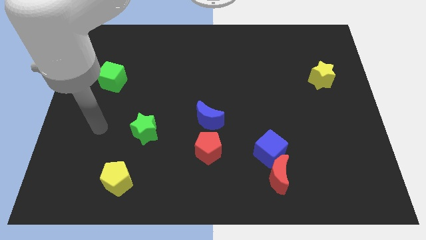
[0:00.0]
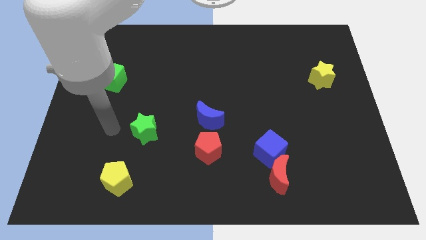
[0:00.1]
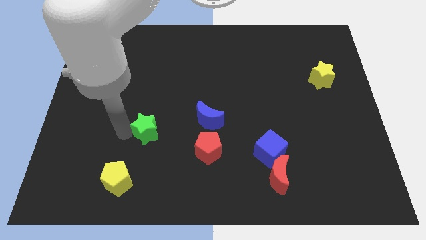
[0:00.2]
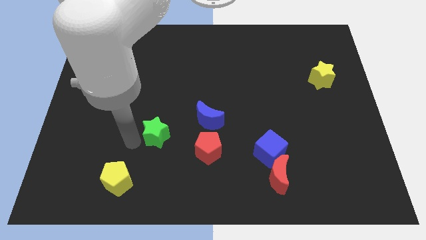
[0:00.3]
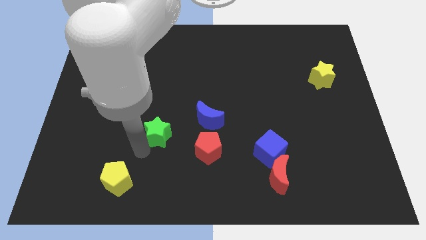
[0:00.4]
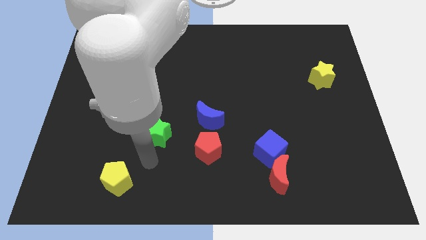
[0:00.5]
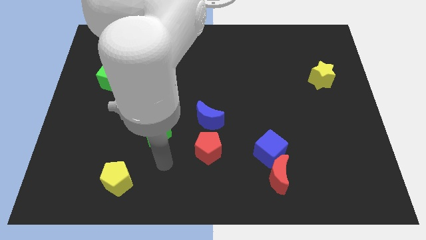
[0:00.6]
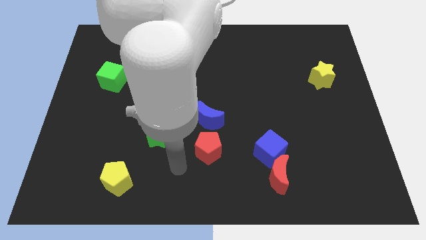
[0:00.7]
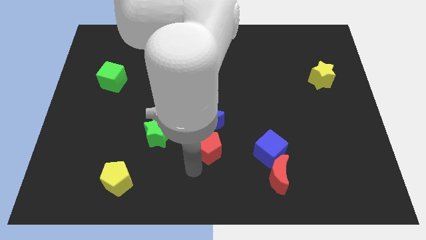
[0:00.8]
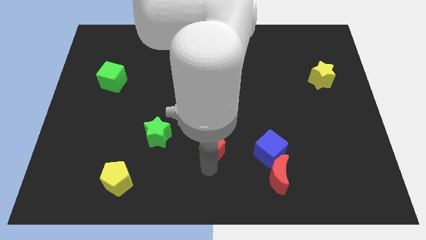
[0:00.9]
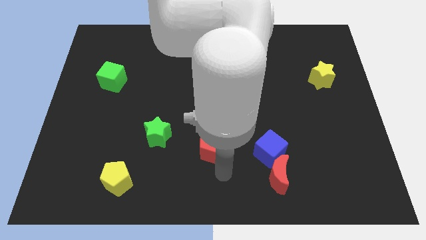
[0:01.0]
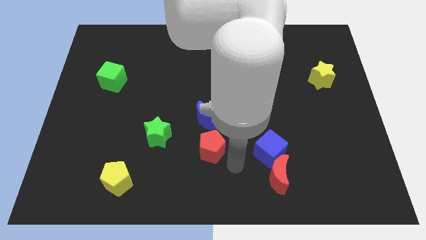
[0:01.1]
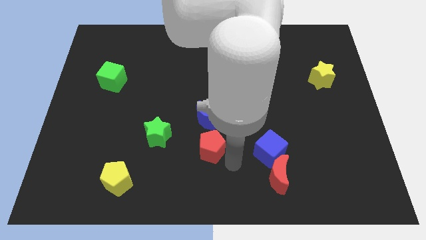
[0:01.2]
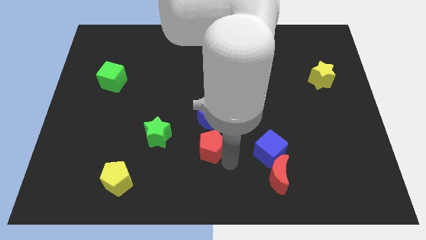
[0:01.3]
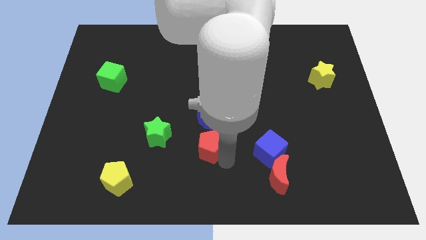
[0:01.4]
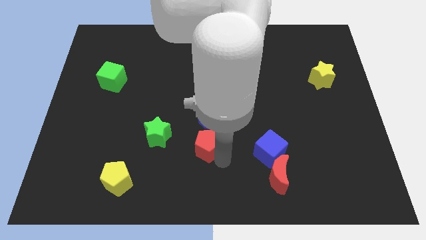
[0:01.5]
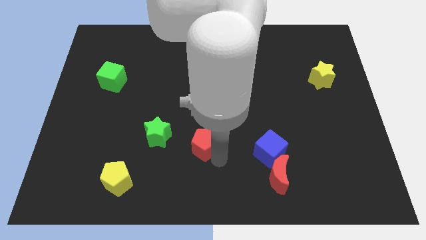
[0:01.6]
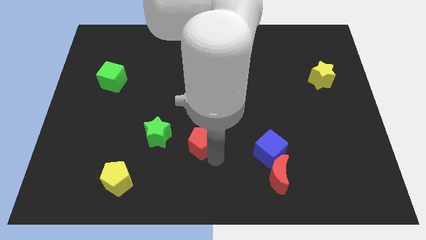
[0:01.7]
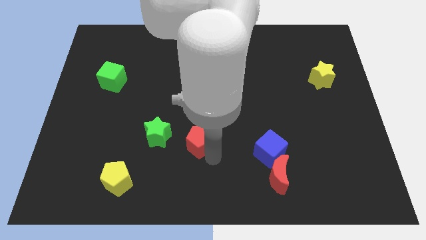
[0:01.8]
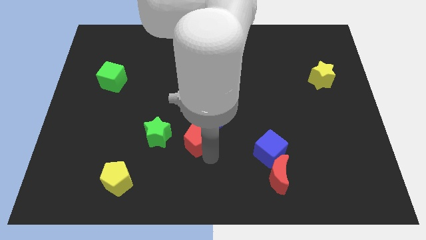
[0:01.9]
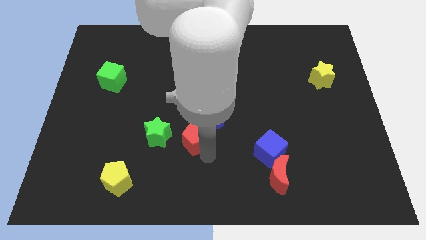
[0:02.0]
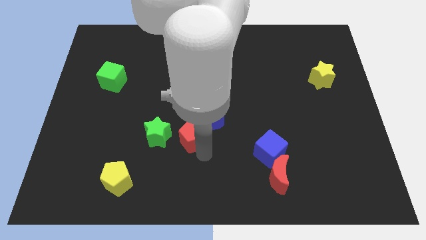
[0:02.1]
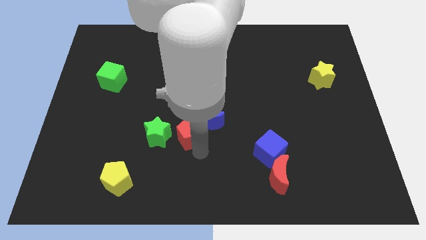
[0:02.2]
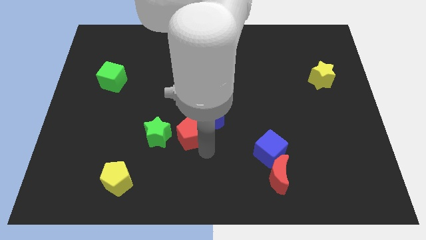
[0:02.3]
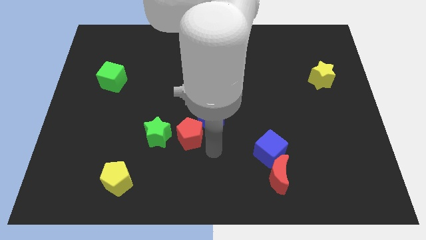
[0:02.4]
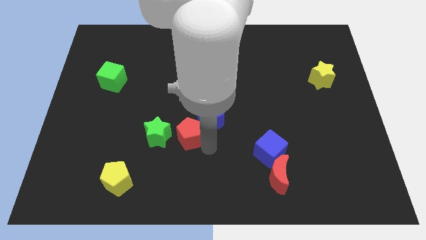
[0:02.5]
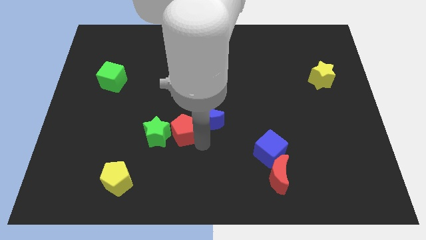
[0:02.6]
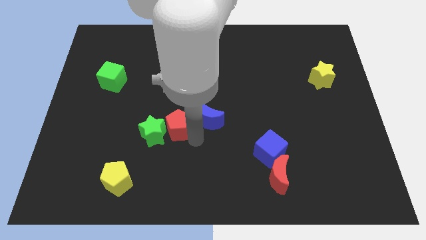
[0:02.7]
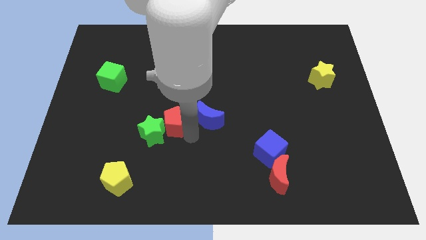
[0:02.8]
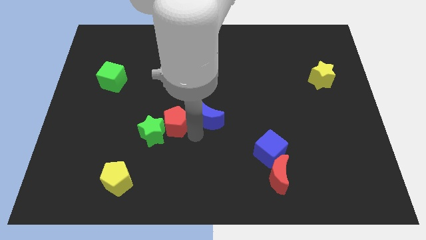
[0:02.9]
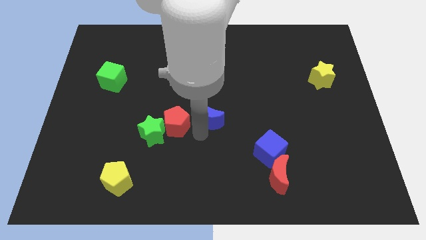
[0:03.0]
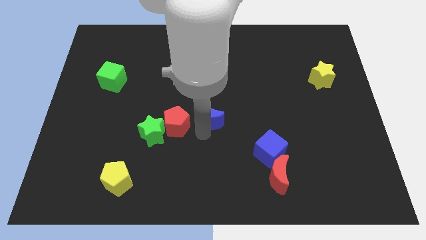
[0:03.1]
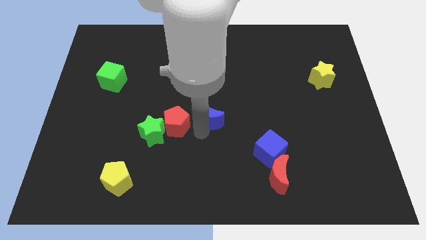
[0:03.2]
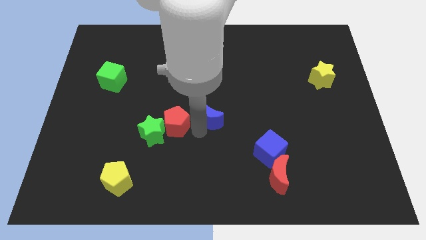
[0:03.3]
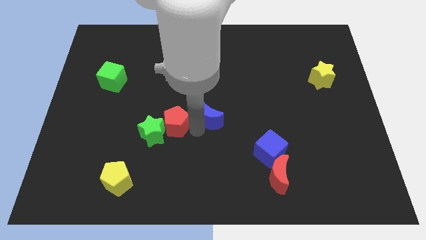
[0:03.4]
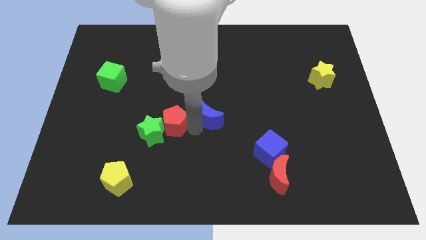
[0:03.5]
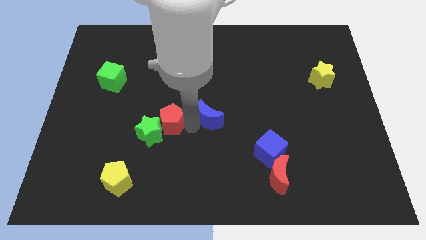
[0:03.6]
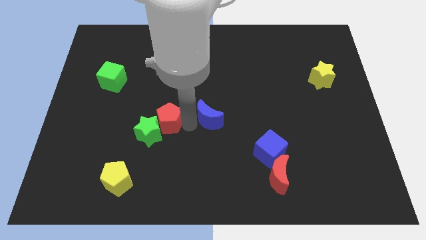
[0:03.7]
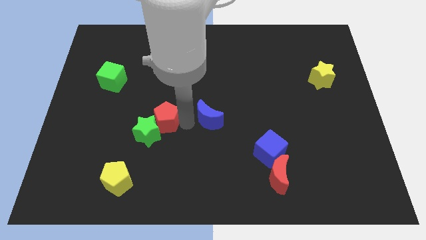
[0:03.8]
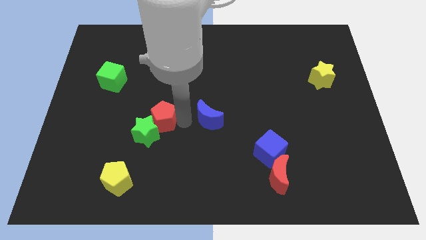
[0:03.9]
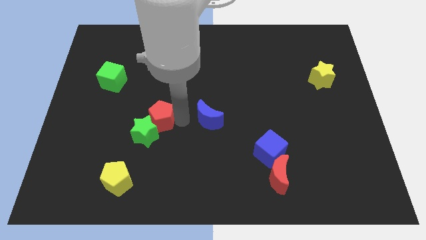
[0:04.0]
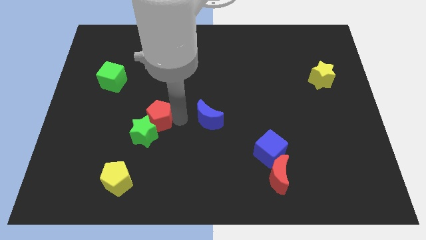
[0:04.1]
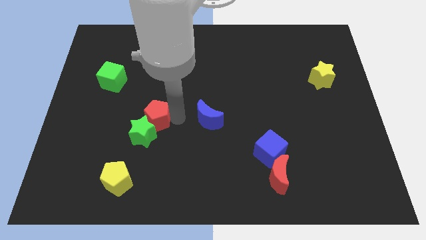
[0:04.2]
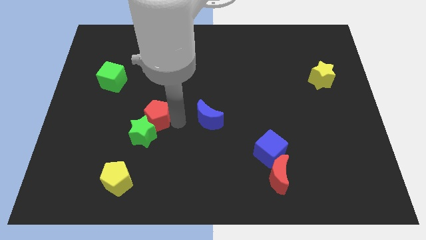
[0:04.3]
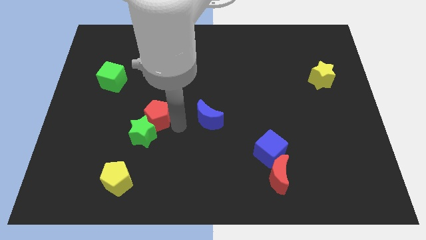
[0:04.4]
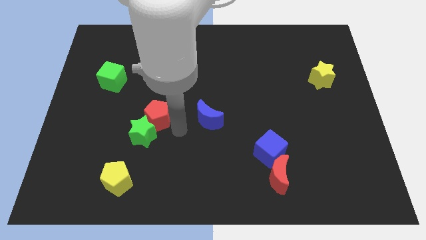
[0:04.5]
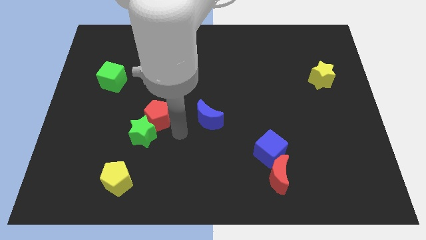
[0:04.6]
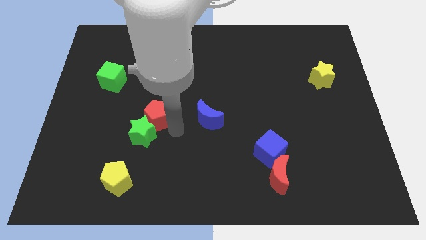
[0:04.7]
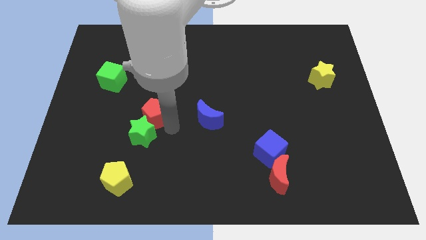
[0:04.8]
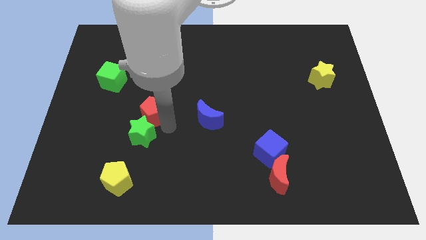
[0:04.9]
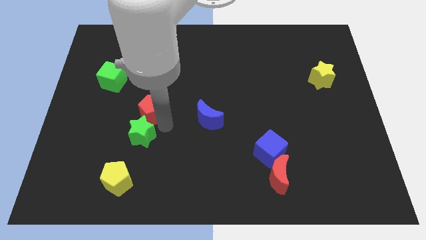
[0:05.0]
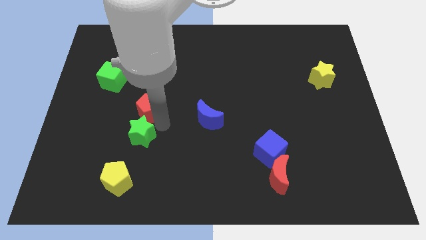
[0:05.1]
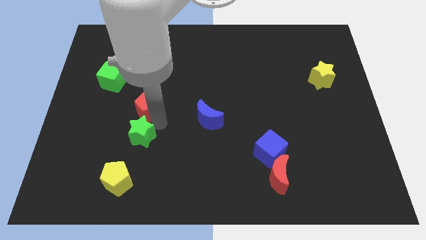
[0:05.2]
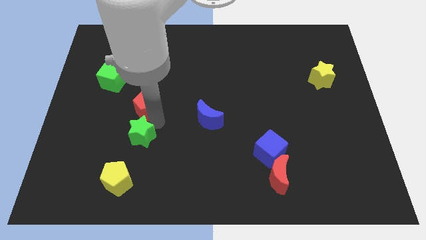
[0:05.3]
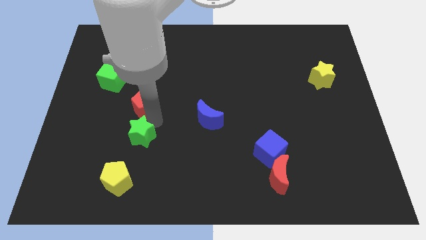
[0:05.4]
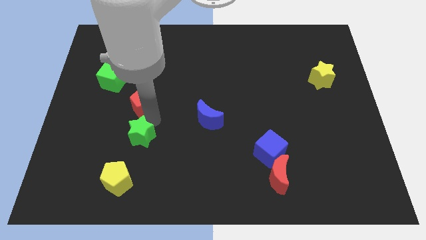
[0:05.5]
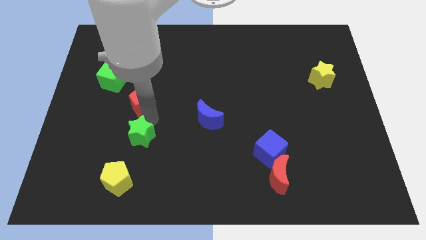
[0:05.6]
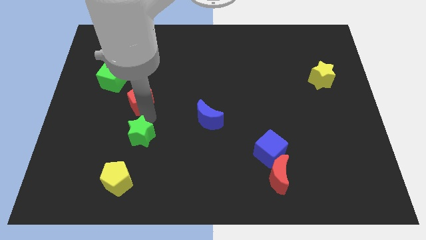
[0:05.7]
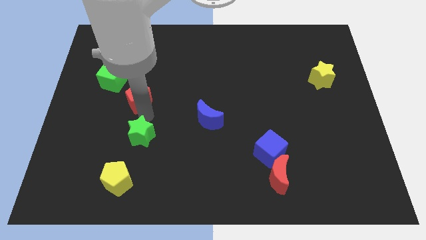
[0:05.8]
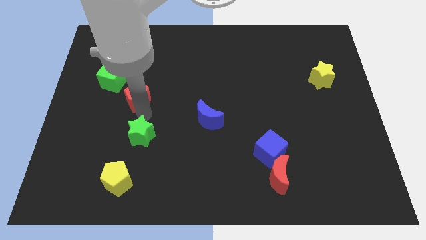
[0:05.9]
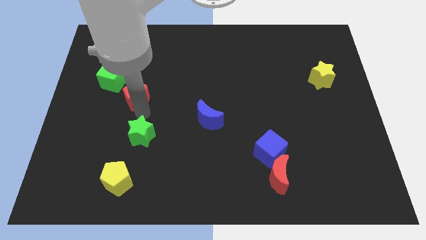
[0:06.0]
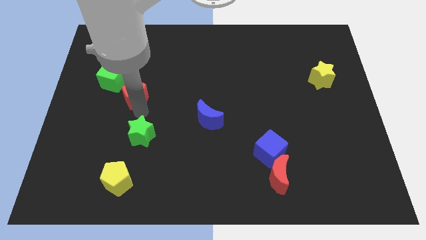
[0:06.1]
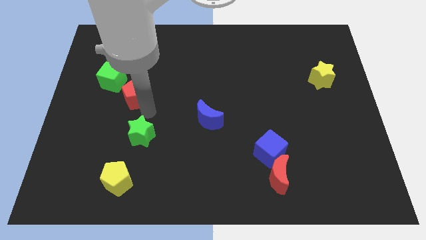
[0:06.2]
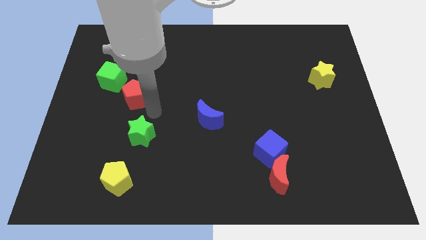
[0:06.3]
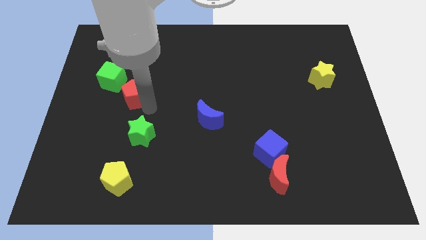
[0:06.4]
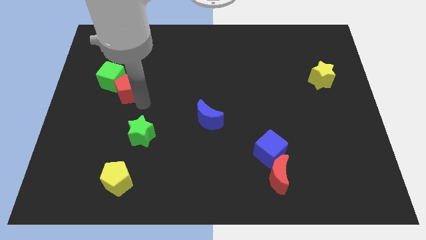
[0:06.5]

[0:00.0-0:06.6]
put the red pentagon towards the green cube

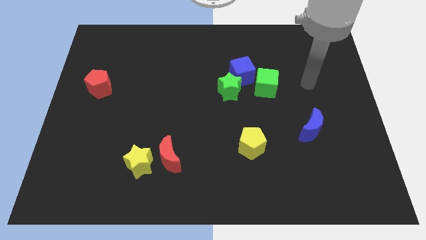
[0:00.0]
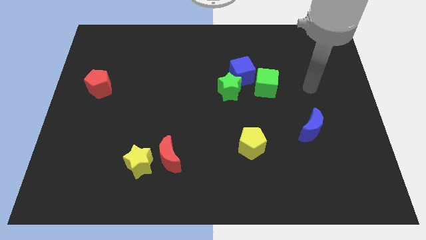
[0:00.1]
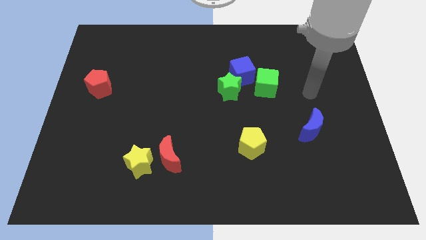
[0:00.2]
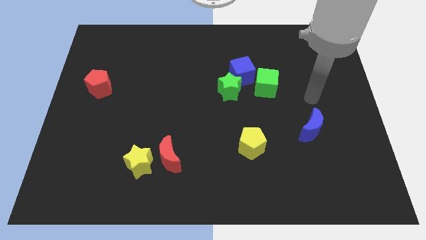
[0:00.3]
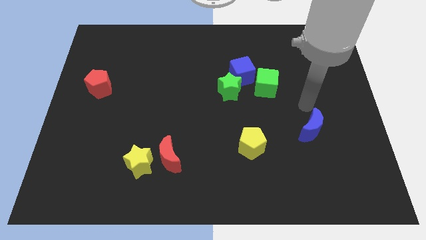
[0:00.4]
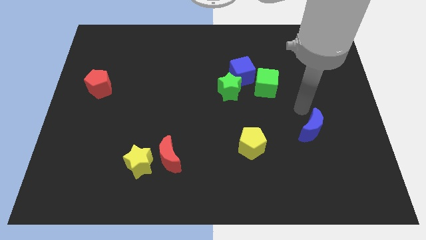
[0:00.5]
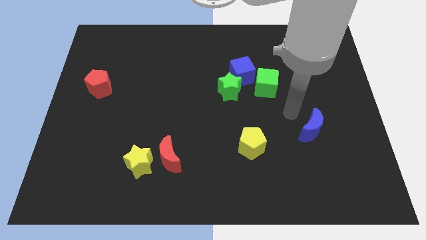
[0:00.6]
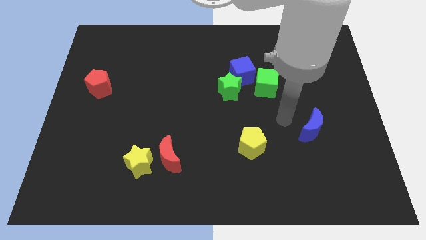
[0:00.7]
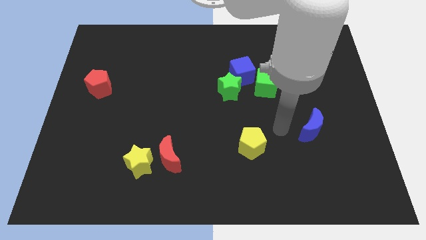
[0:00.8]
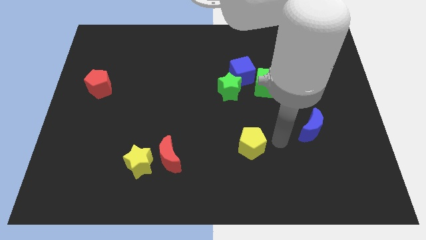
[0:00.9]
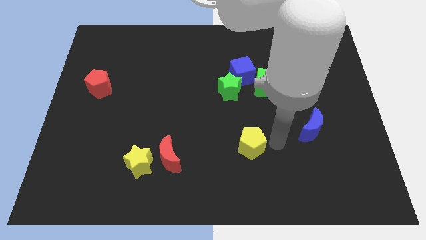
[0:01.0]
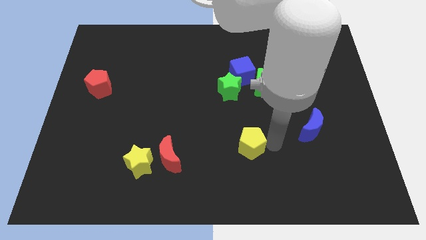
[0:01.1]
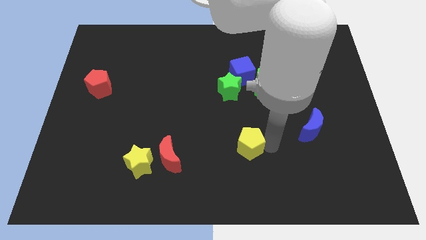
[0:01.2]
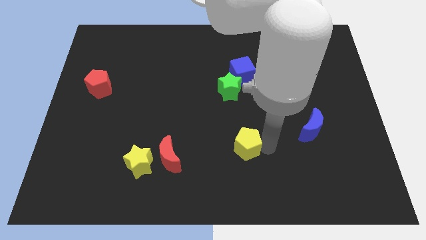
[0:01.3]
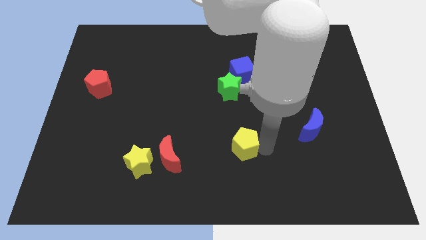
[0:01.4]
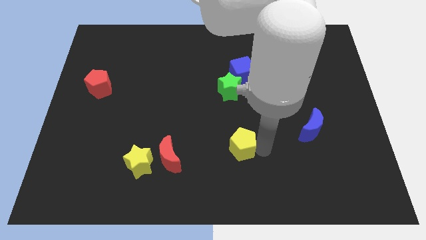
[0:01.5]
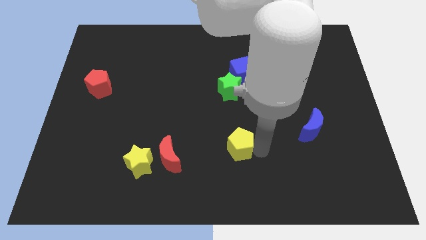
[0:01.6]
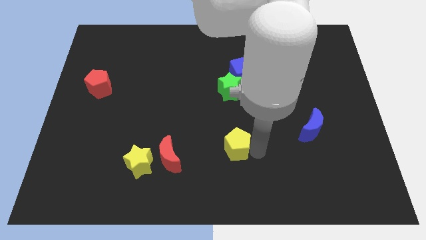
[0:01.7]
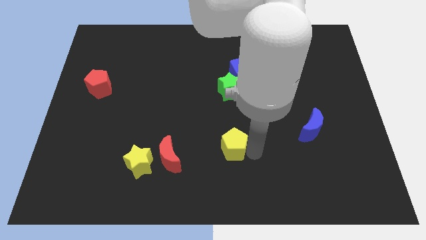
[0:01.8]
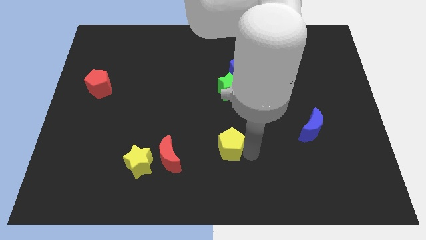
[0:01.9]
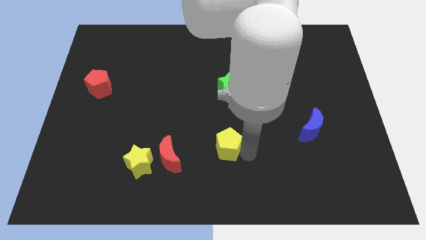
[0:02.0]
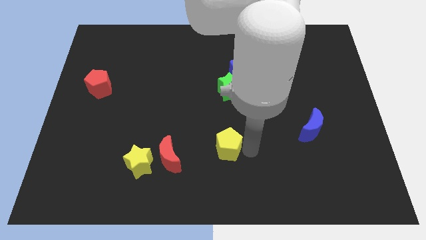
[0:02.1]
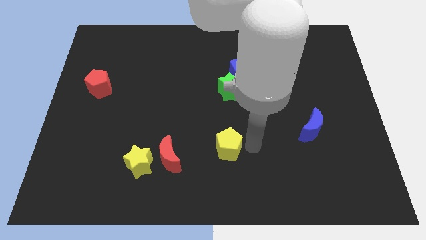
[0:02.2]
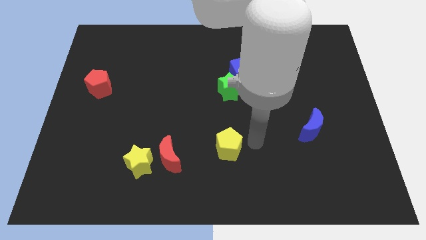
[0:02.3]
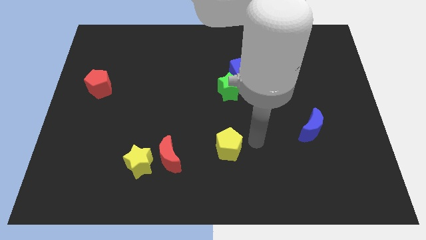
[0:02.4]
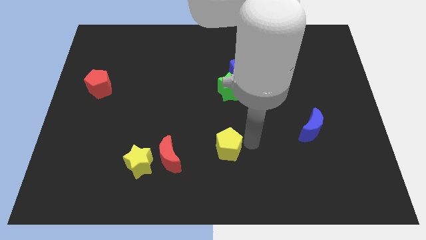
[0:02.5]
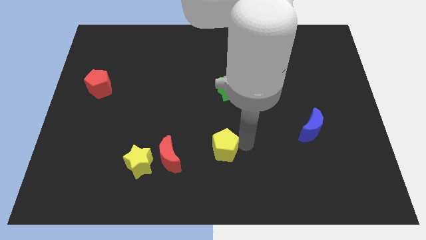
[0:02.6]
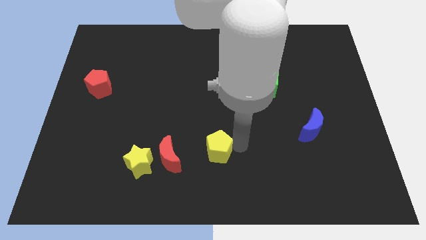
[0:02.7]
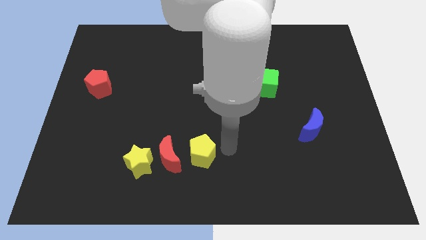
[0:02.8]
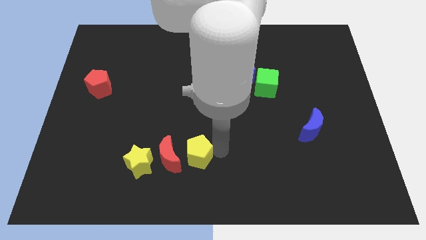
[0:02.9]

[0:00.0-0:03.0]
move the yellow pentagon close to the red moon
